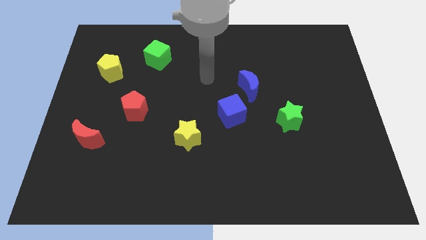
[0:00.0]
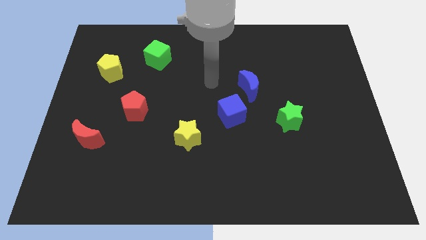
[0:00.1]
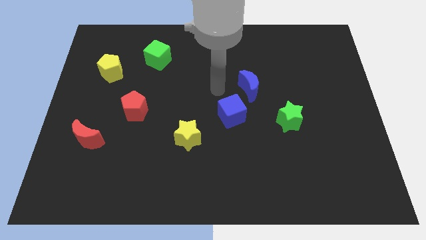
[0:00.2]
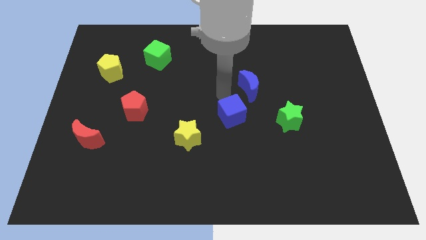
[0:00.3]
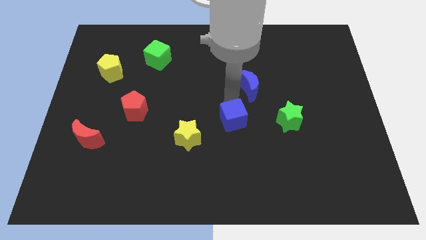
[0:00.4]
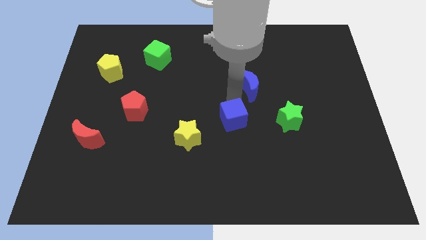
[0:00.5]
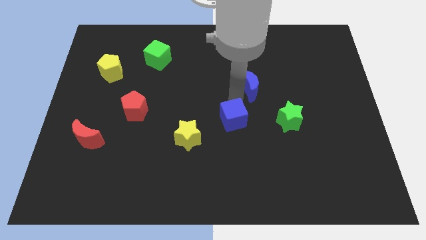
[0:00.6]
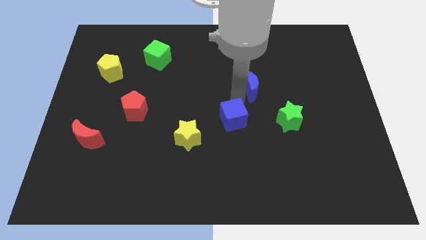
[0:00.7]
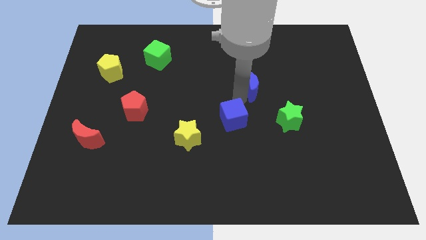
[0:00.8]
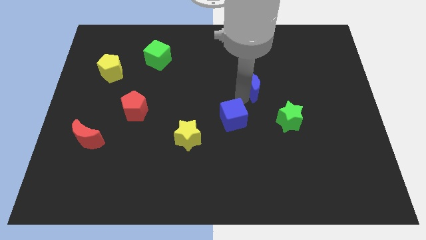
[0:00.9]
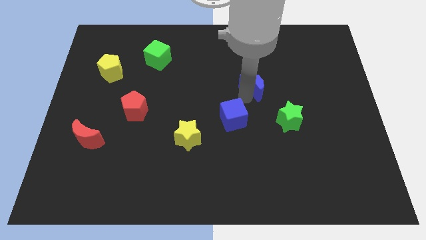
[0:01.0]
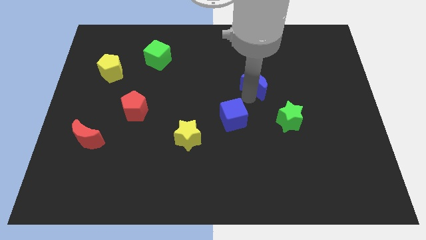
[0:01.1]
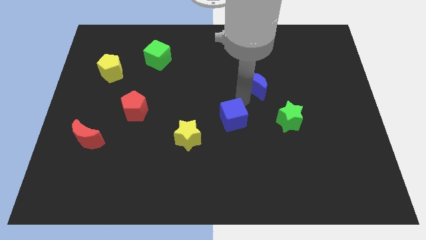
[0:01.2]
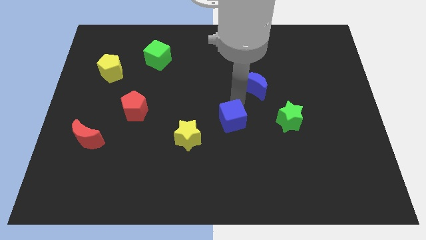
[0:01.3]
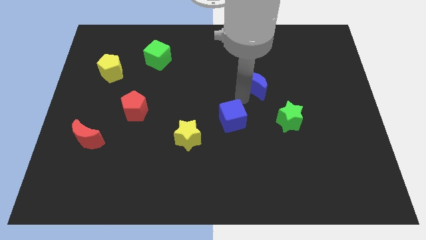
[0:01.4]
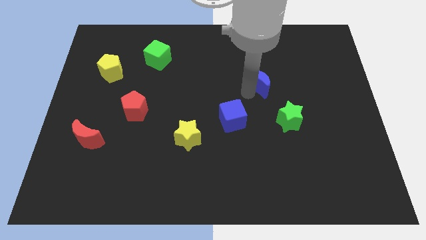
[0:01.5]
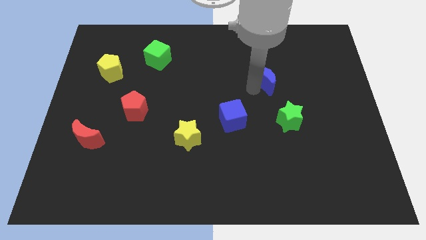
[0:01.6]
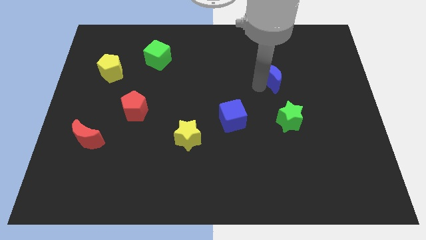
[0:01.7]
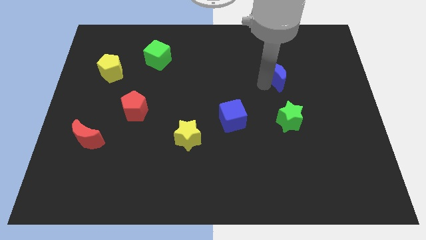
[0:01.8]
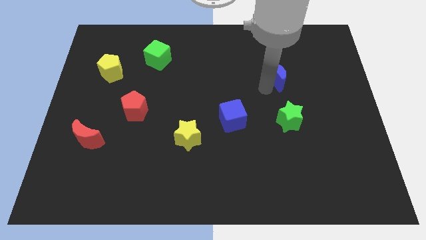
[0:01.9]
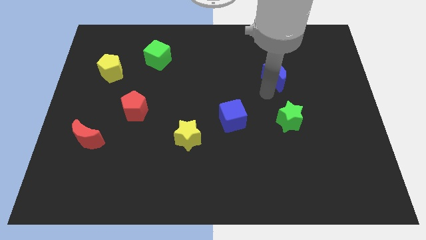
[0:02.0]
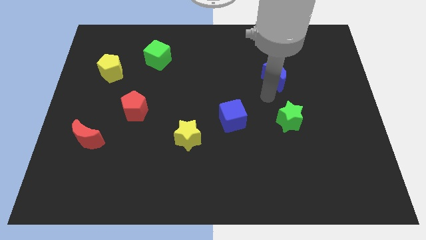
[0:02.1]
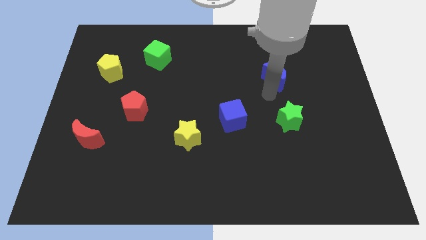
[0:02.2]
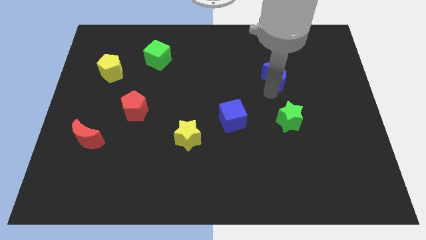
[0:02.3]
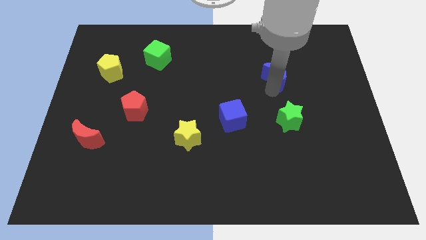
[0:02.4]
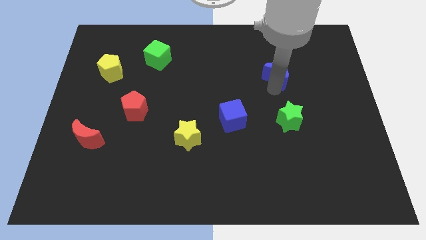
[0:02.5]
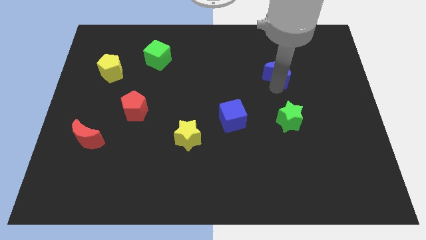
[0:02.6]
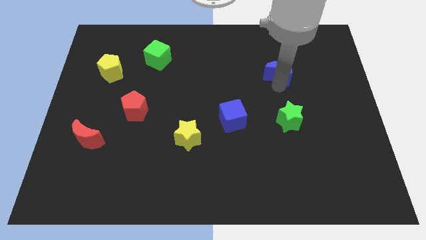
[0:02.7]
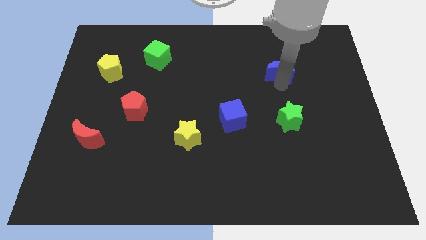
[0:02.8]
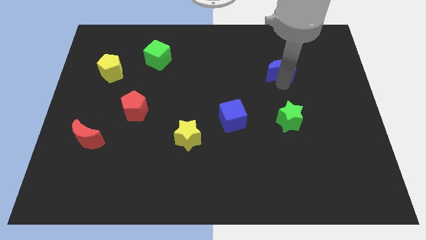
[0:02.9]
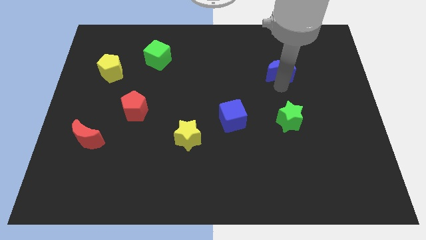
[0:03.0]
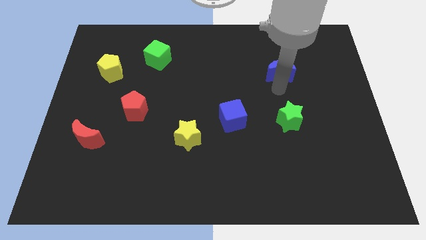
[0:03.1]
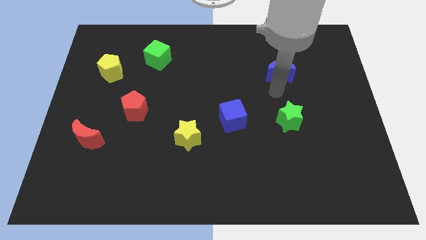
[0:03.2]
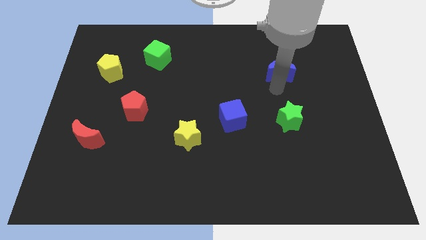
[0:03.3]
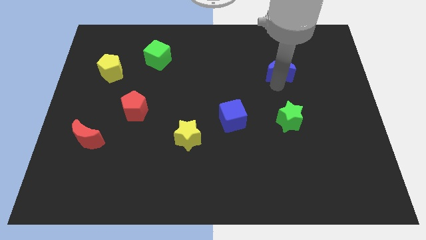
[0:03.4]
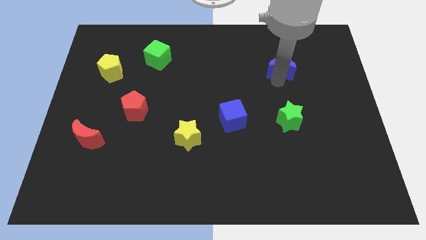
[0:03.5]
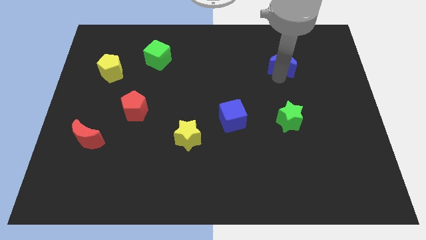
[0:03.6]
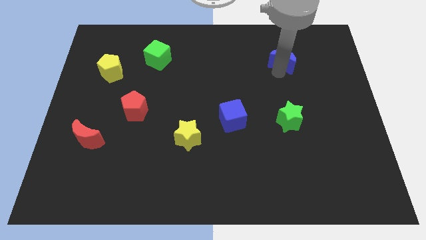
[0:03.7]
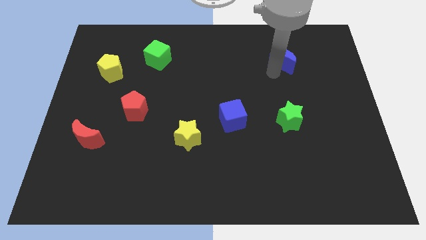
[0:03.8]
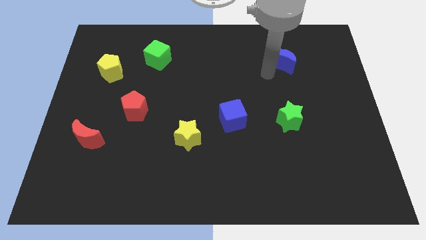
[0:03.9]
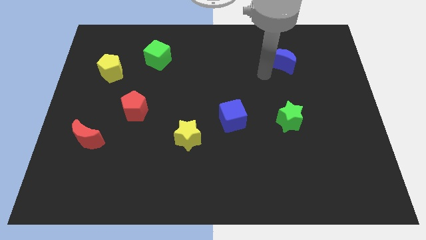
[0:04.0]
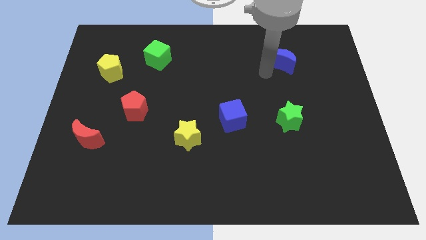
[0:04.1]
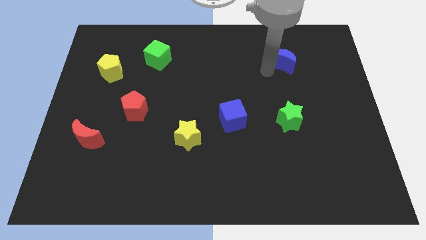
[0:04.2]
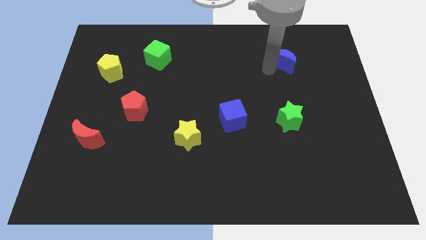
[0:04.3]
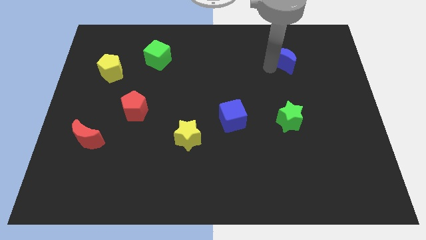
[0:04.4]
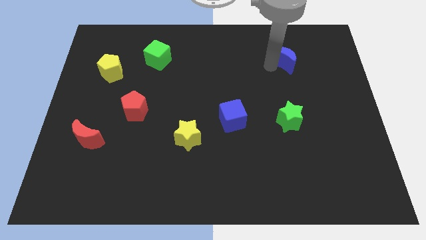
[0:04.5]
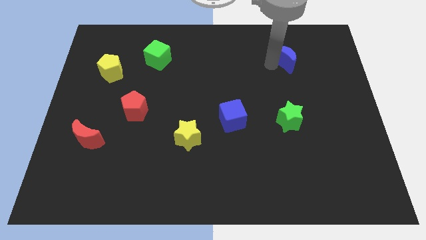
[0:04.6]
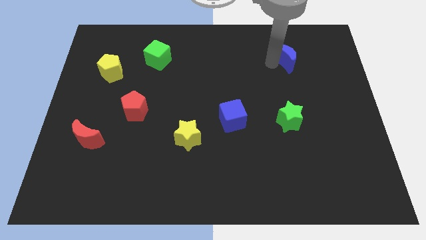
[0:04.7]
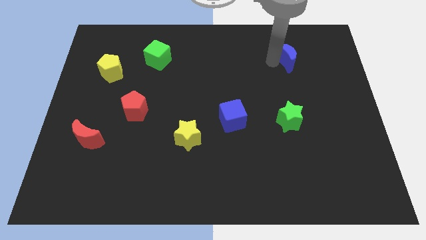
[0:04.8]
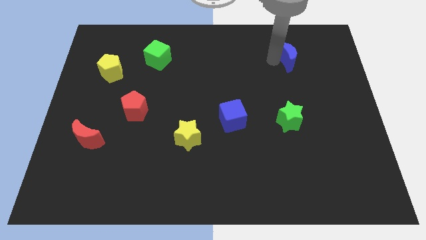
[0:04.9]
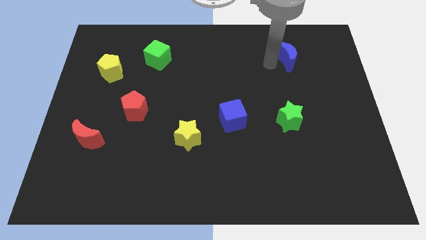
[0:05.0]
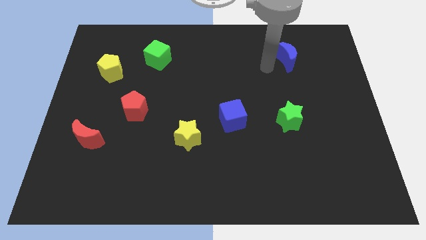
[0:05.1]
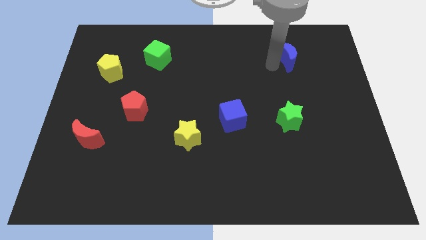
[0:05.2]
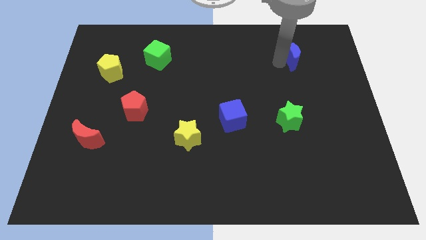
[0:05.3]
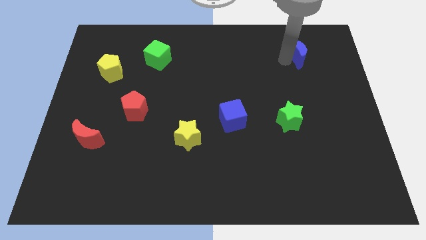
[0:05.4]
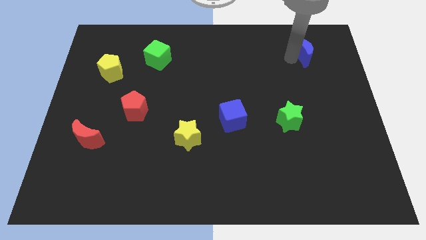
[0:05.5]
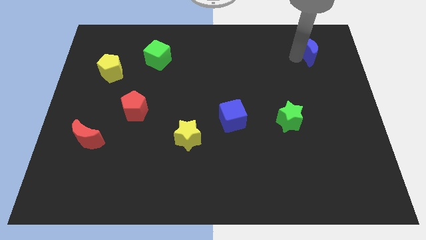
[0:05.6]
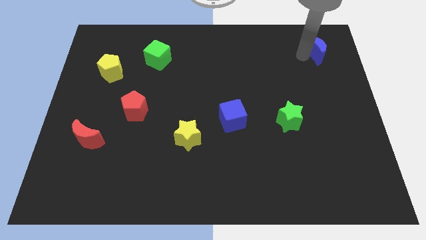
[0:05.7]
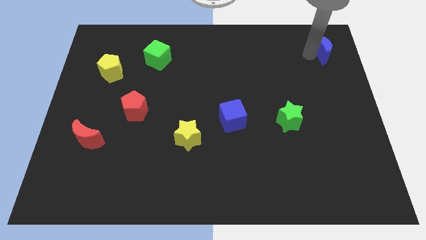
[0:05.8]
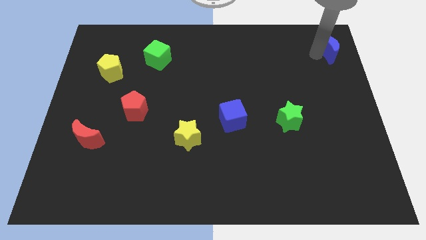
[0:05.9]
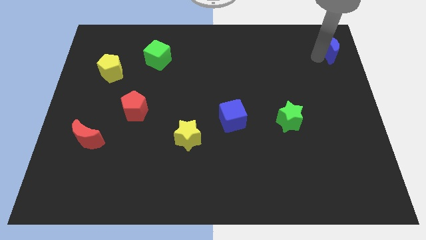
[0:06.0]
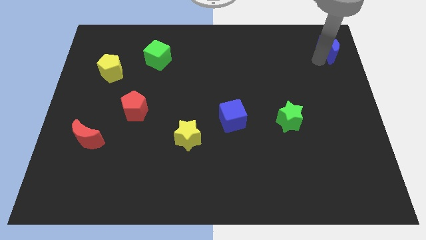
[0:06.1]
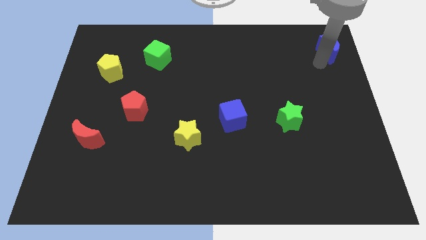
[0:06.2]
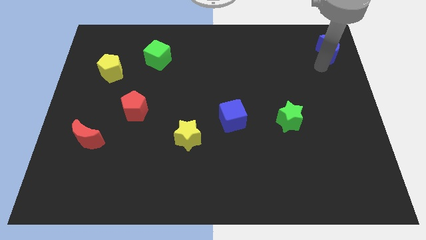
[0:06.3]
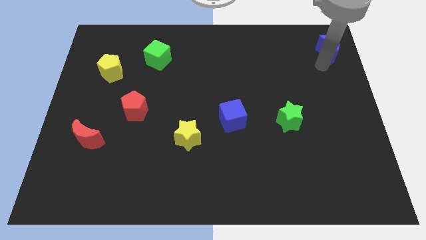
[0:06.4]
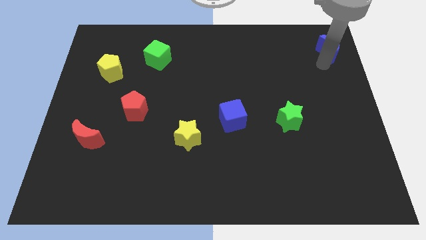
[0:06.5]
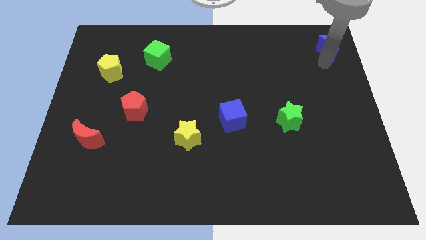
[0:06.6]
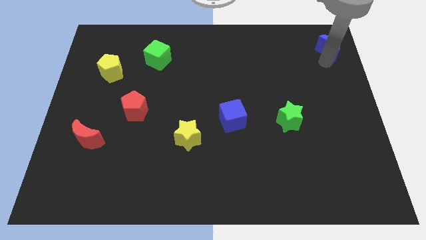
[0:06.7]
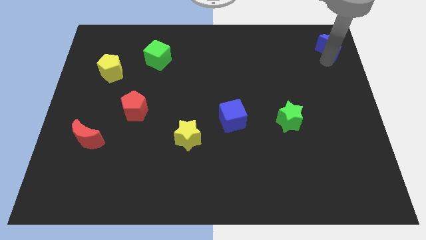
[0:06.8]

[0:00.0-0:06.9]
put the blue moon to the top right corner
